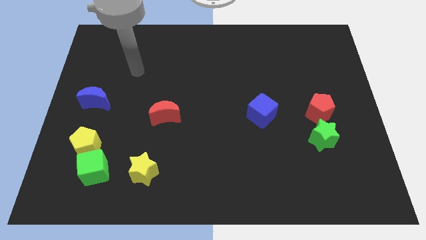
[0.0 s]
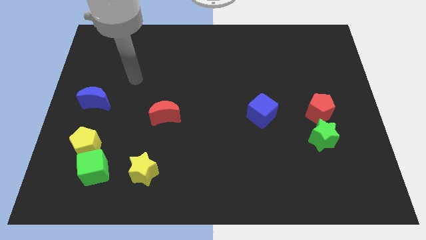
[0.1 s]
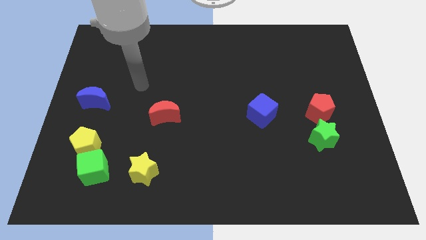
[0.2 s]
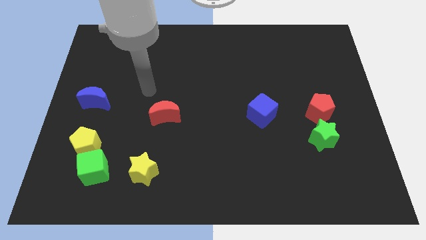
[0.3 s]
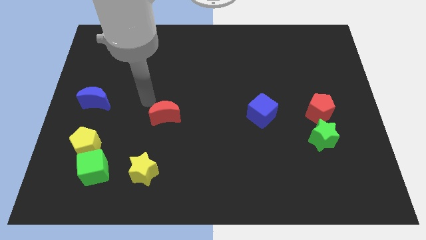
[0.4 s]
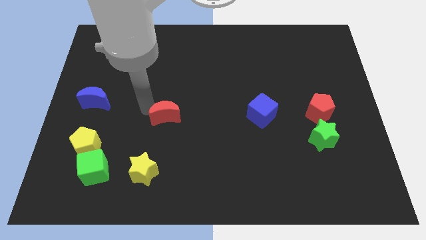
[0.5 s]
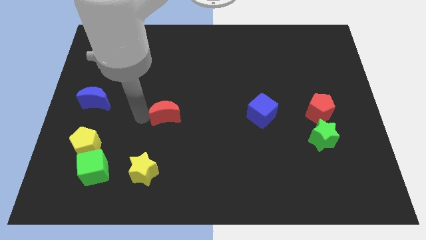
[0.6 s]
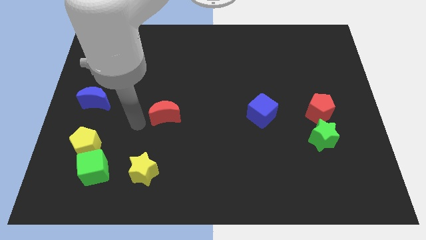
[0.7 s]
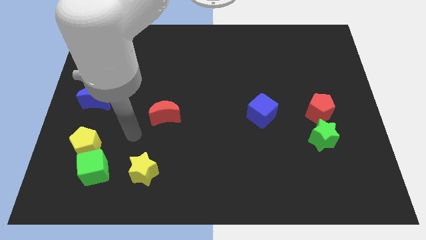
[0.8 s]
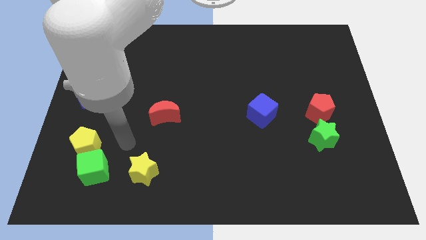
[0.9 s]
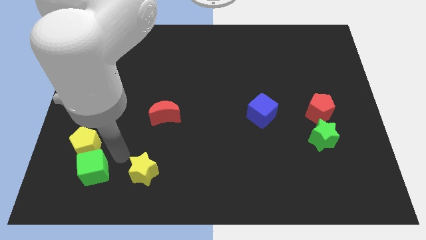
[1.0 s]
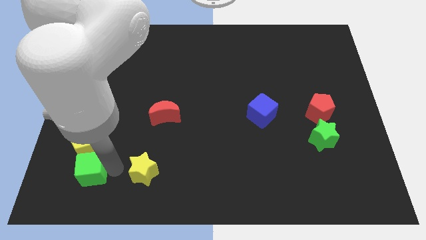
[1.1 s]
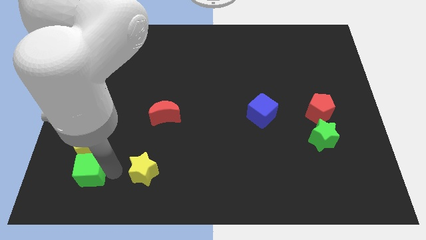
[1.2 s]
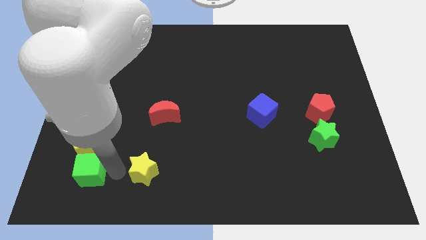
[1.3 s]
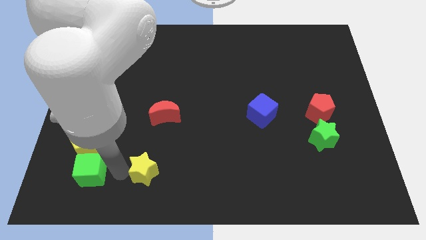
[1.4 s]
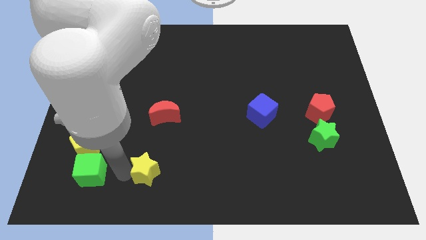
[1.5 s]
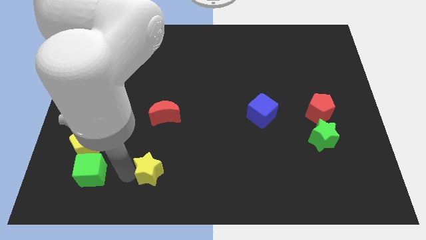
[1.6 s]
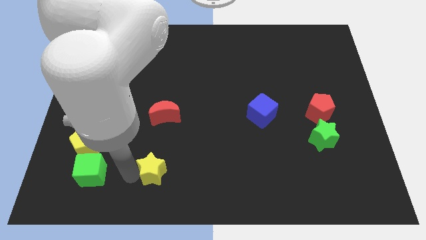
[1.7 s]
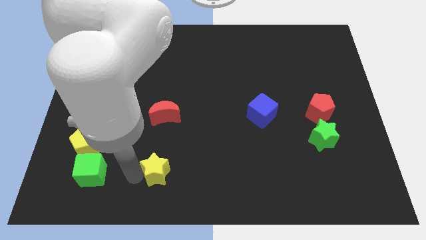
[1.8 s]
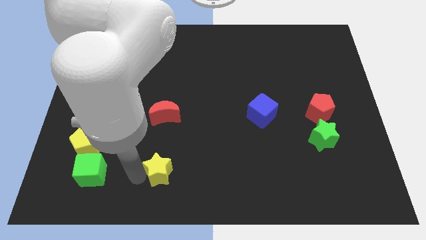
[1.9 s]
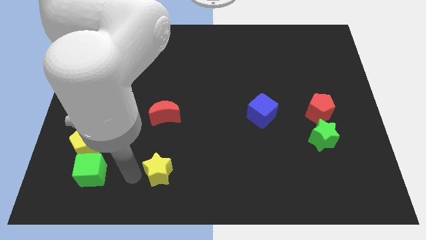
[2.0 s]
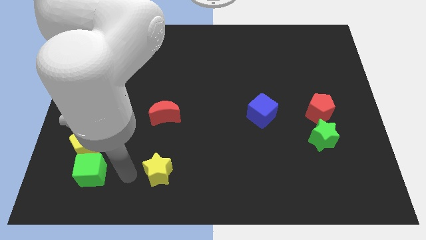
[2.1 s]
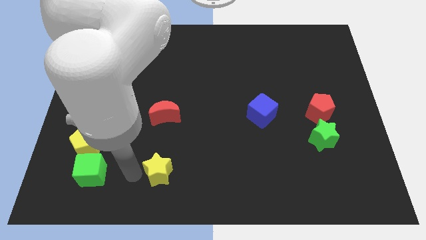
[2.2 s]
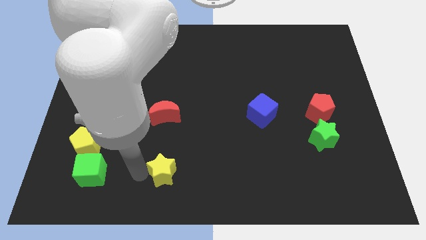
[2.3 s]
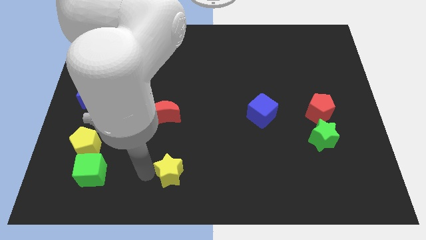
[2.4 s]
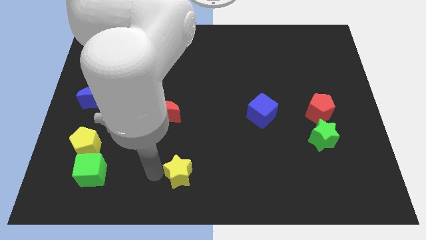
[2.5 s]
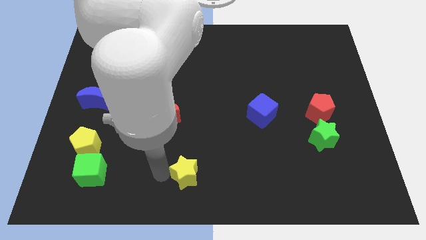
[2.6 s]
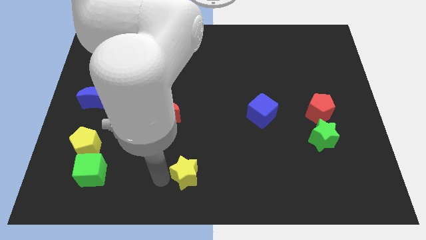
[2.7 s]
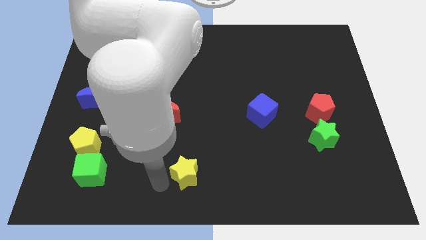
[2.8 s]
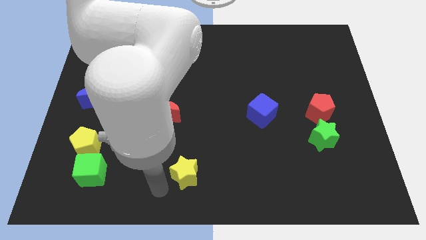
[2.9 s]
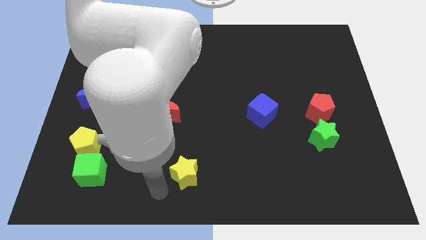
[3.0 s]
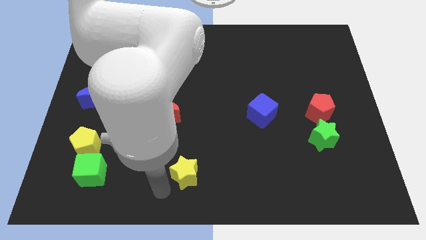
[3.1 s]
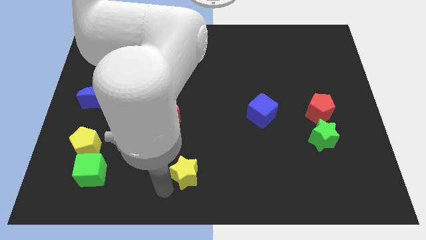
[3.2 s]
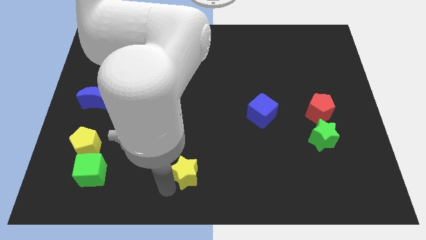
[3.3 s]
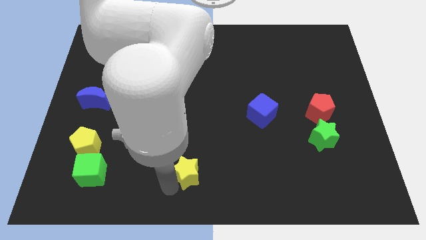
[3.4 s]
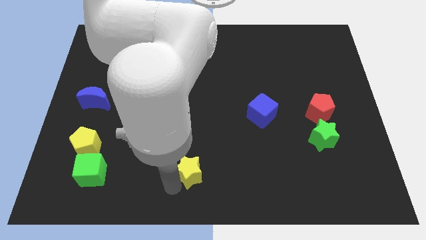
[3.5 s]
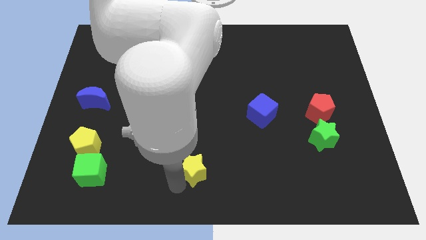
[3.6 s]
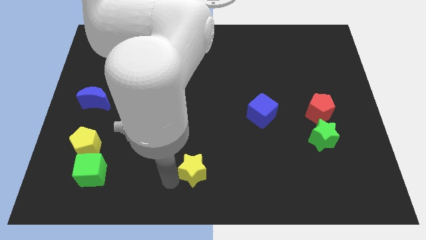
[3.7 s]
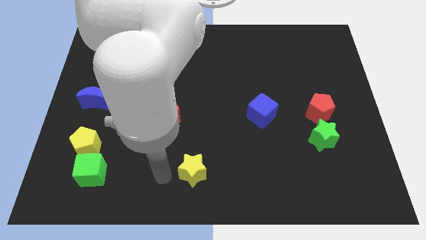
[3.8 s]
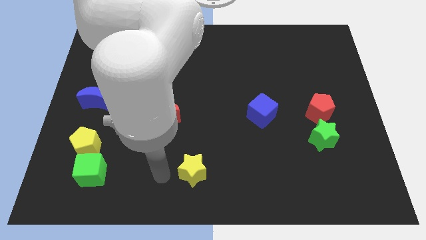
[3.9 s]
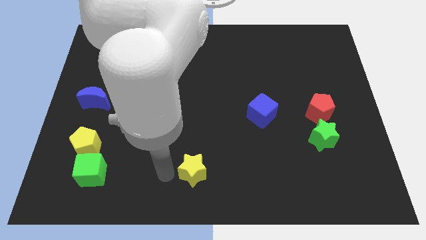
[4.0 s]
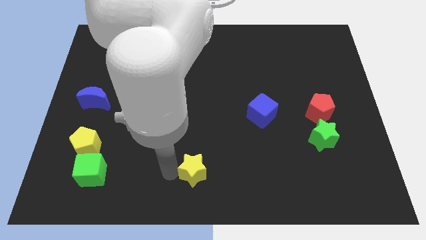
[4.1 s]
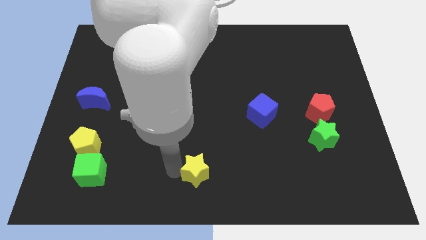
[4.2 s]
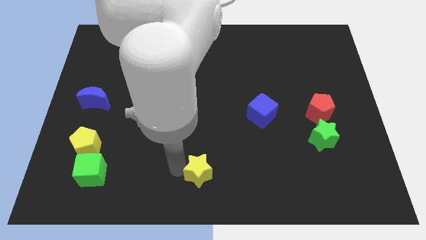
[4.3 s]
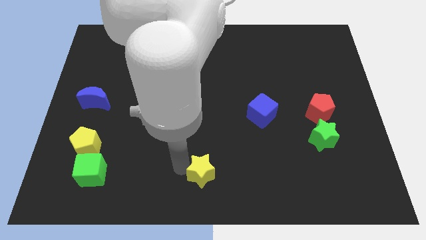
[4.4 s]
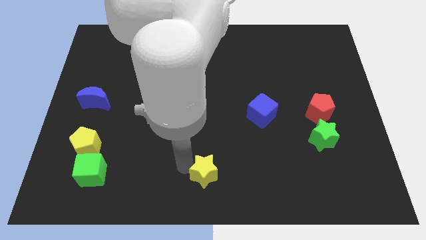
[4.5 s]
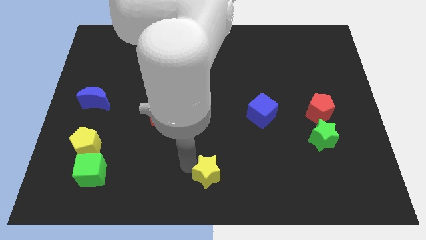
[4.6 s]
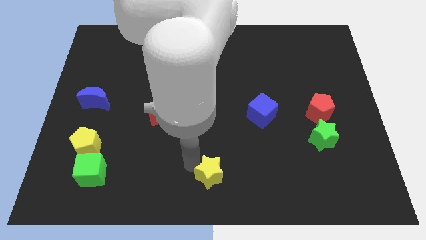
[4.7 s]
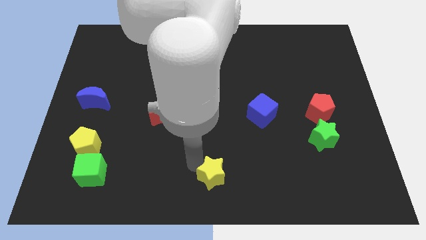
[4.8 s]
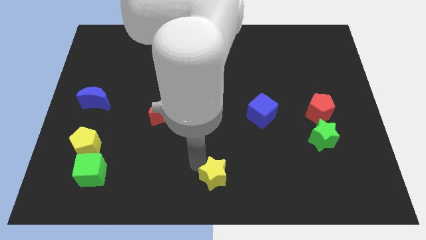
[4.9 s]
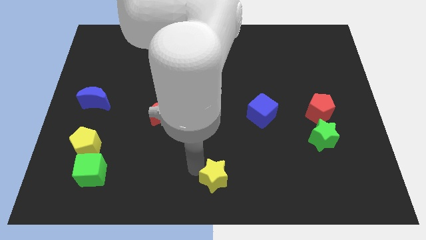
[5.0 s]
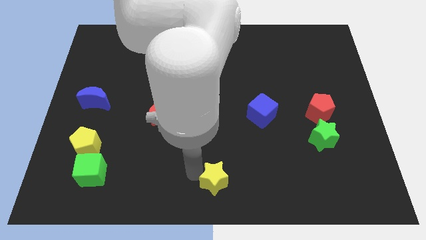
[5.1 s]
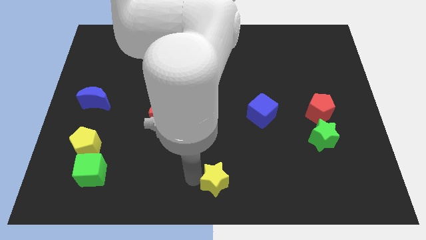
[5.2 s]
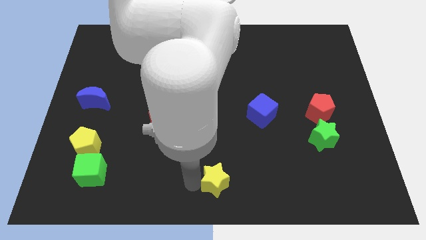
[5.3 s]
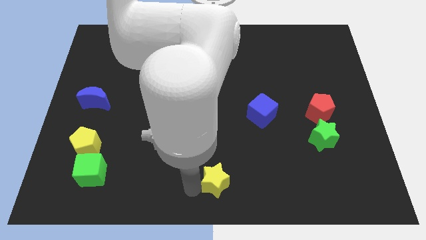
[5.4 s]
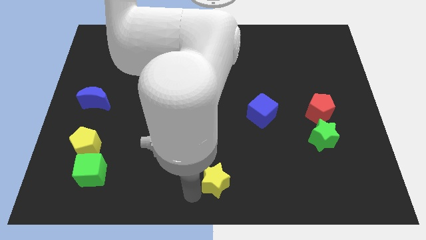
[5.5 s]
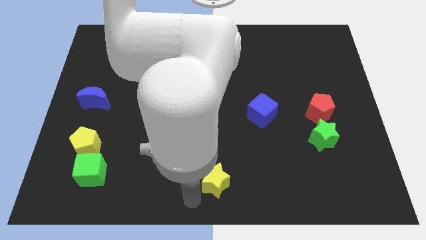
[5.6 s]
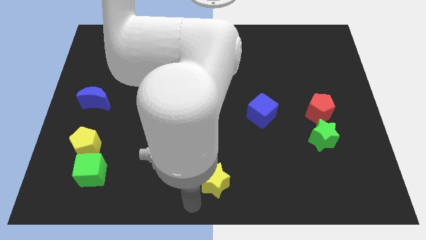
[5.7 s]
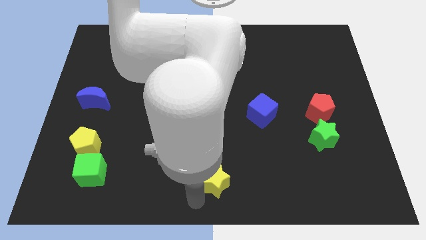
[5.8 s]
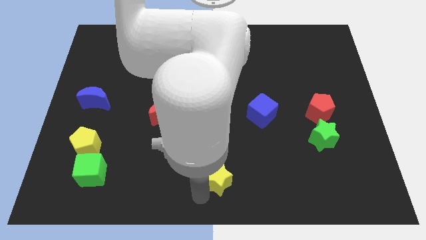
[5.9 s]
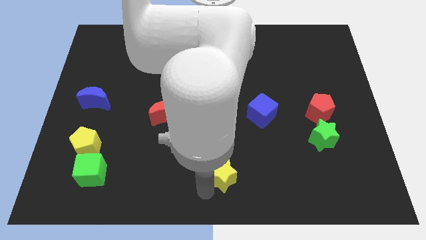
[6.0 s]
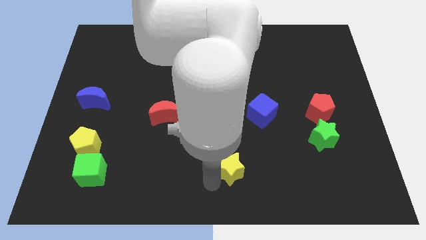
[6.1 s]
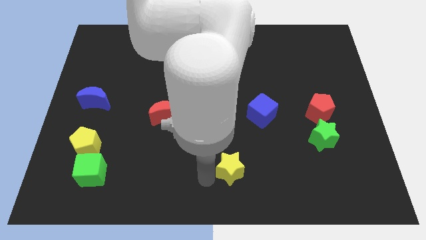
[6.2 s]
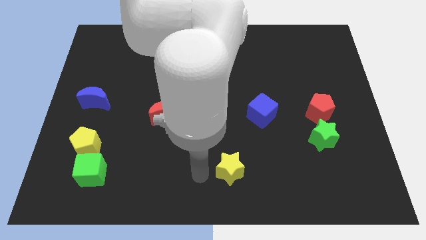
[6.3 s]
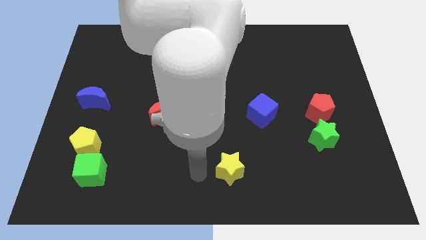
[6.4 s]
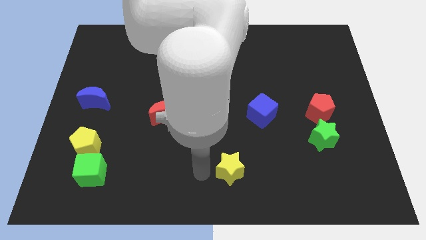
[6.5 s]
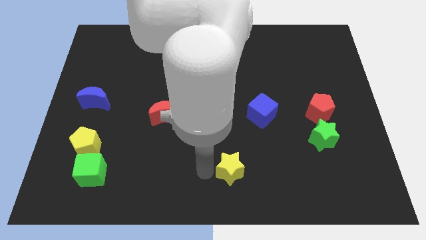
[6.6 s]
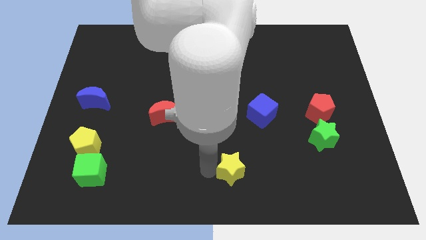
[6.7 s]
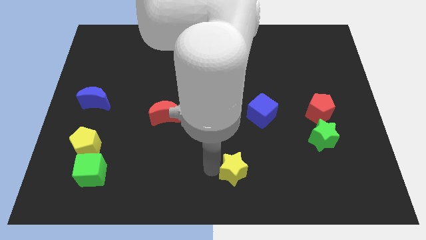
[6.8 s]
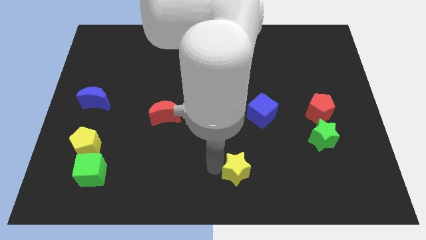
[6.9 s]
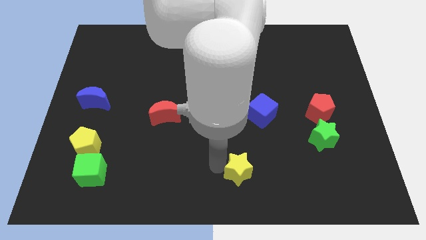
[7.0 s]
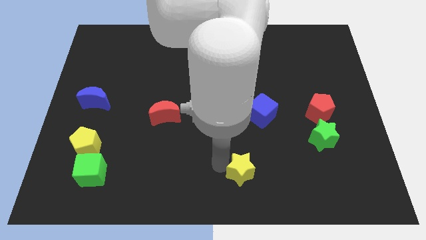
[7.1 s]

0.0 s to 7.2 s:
move the yellow star right

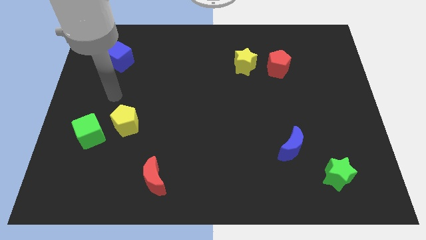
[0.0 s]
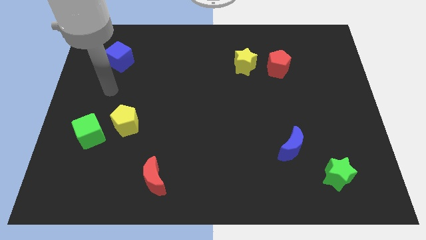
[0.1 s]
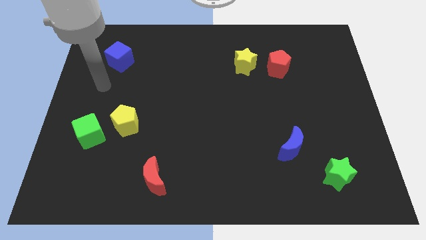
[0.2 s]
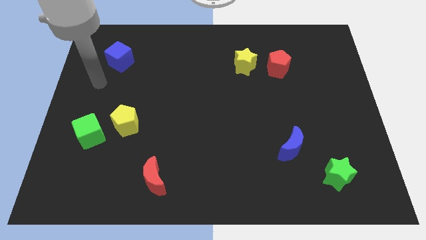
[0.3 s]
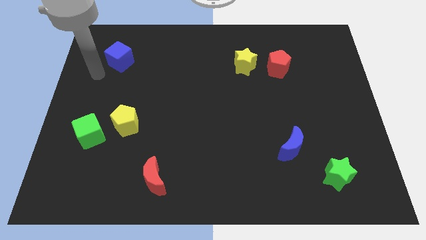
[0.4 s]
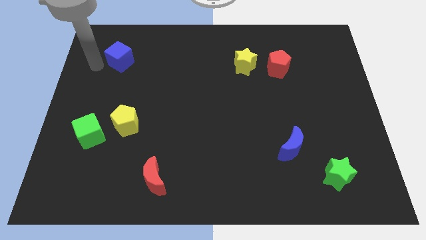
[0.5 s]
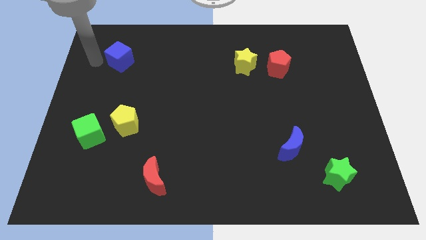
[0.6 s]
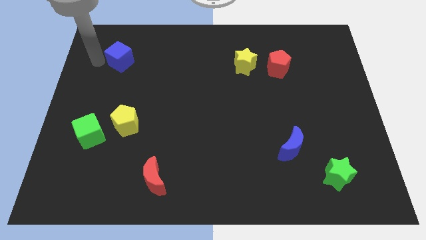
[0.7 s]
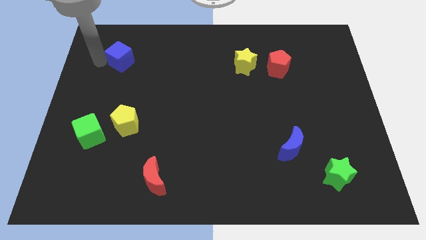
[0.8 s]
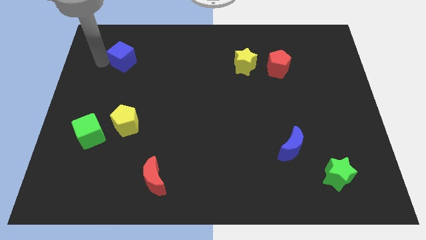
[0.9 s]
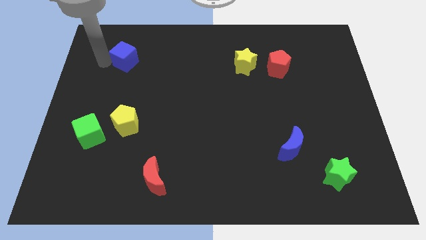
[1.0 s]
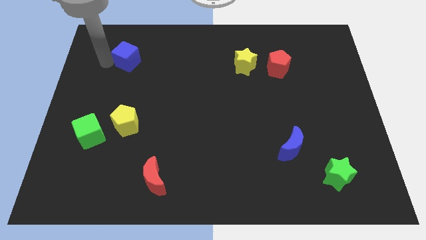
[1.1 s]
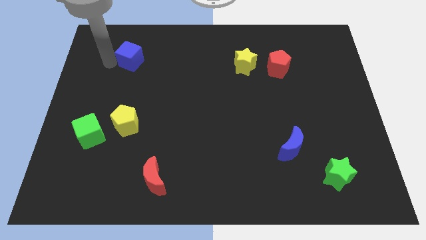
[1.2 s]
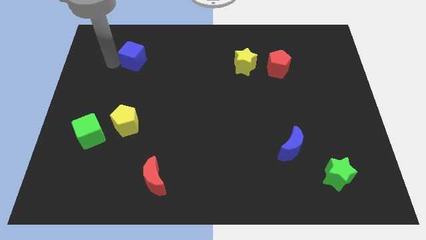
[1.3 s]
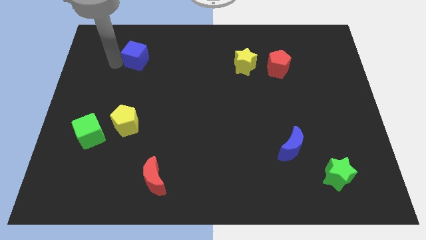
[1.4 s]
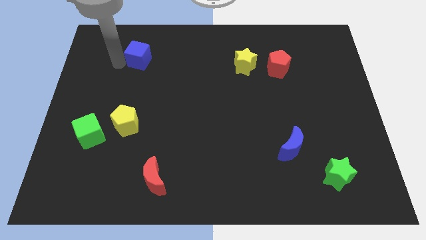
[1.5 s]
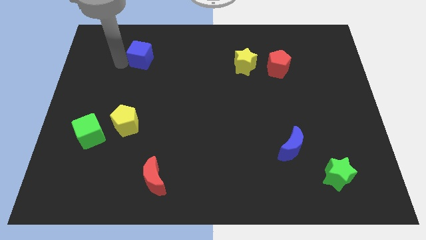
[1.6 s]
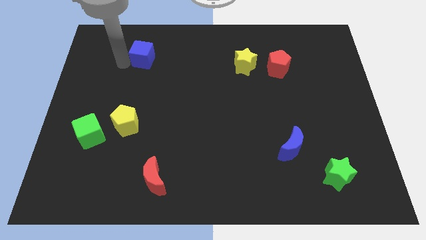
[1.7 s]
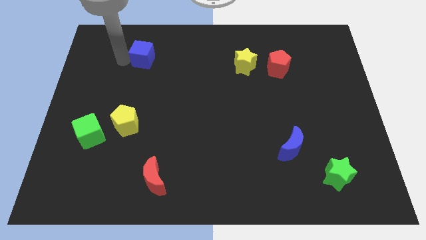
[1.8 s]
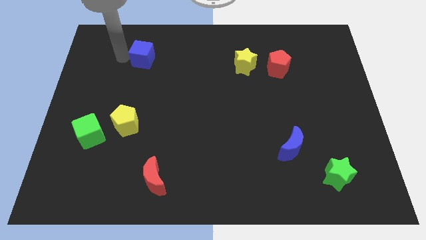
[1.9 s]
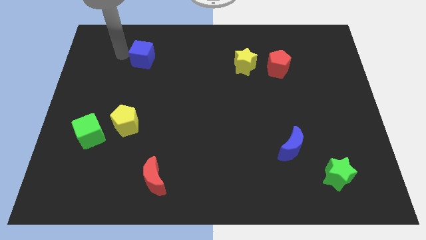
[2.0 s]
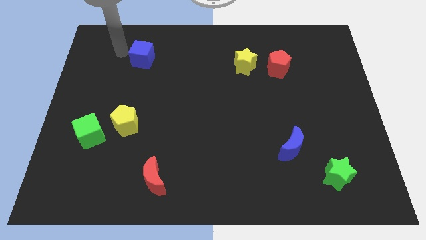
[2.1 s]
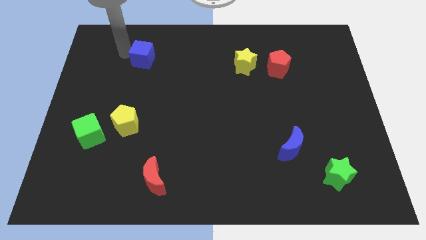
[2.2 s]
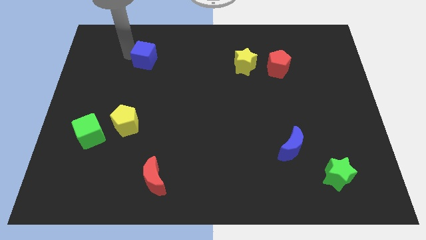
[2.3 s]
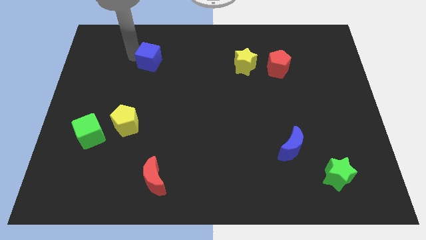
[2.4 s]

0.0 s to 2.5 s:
push the blue cube to the right somewhat
